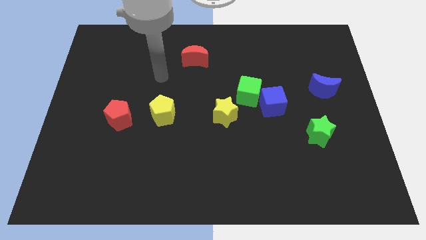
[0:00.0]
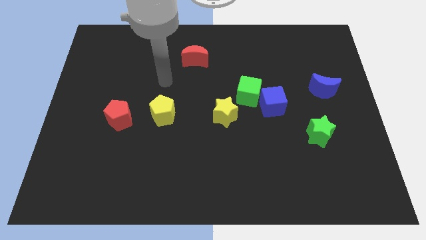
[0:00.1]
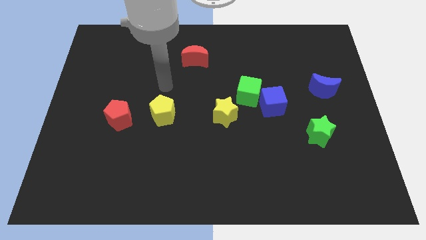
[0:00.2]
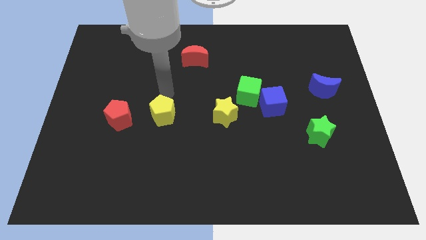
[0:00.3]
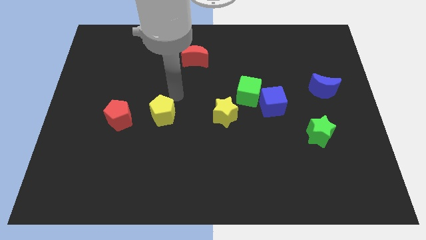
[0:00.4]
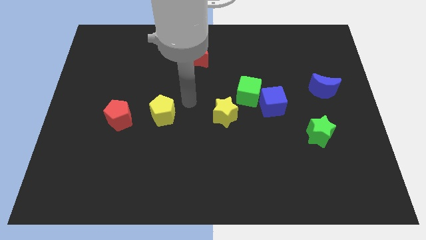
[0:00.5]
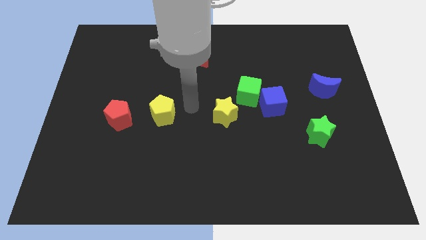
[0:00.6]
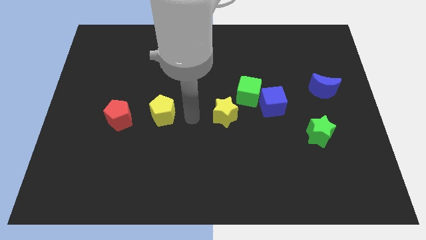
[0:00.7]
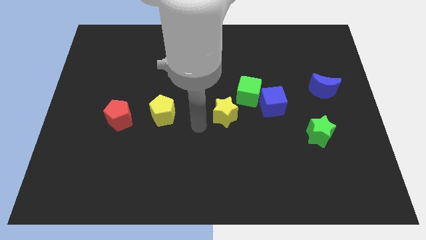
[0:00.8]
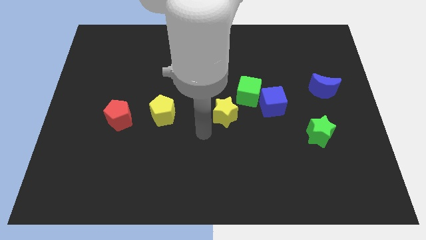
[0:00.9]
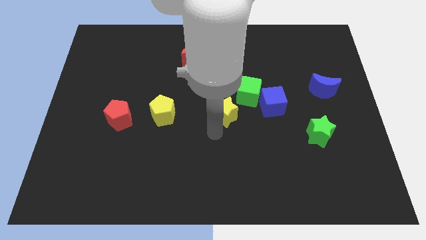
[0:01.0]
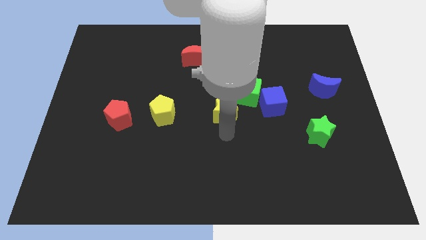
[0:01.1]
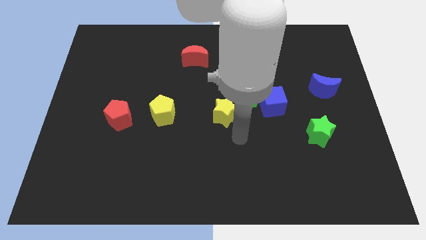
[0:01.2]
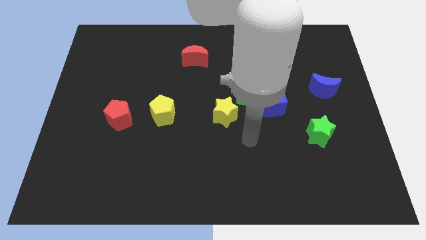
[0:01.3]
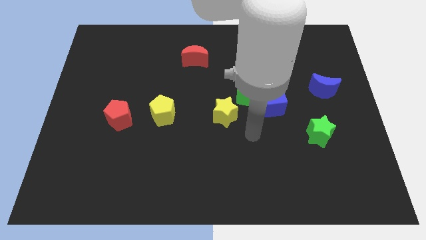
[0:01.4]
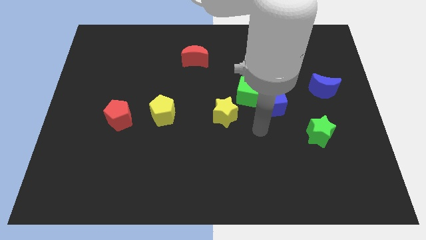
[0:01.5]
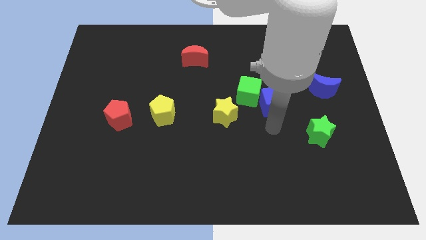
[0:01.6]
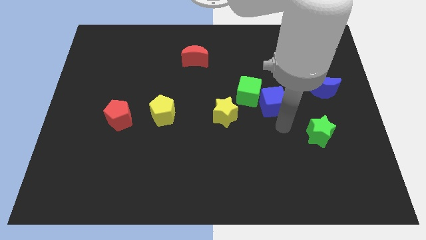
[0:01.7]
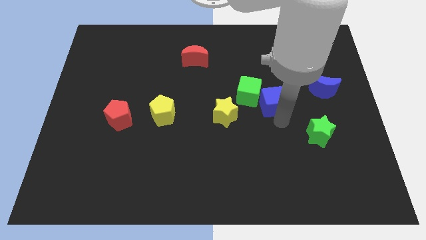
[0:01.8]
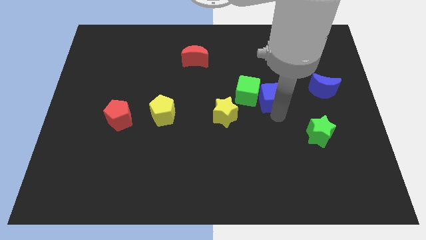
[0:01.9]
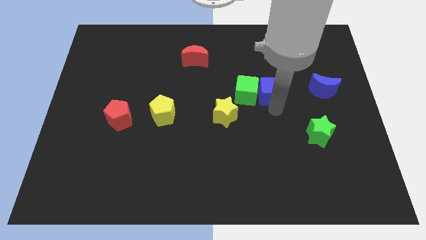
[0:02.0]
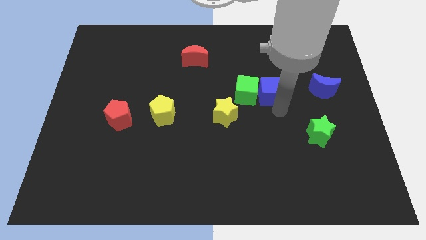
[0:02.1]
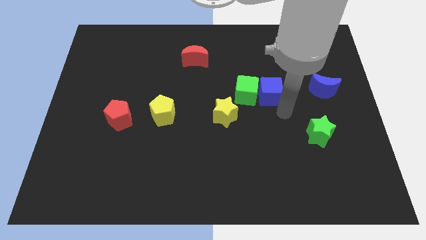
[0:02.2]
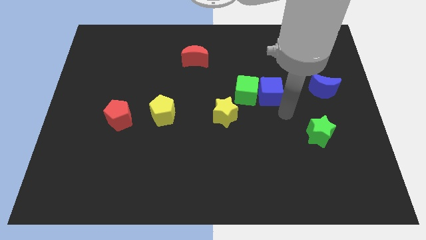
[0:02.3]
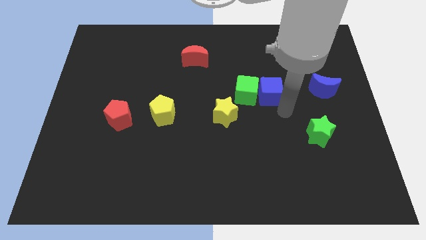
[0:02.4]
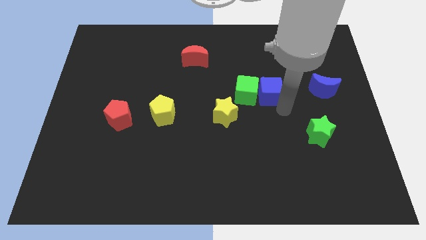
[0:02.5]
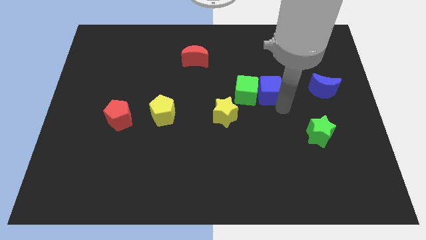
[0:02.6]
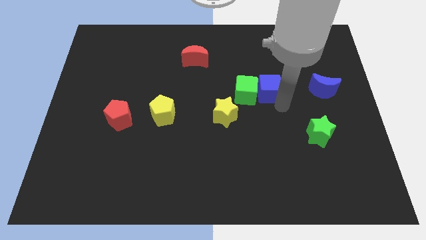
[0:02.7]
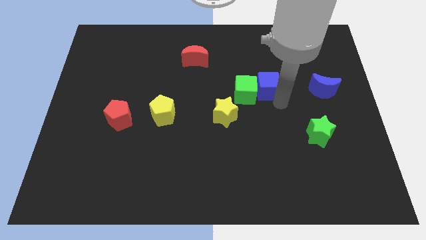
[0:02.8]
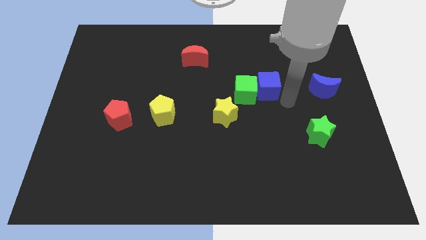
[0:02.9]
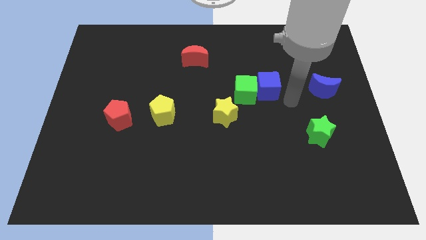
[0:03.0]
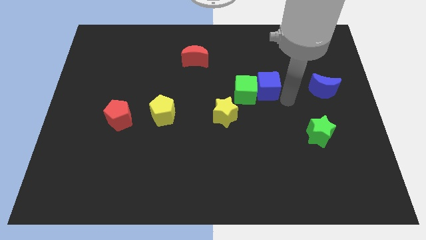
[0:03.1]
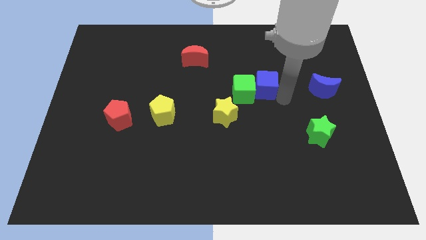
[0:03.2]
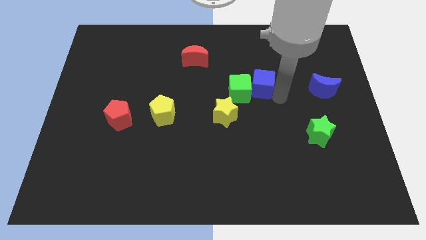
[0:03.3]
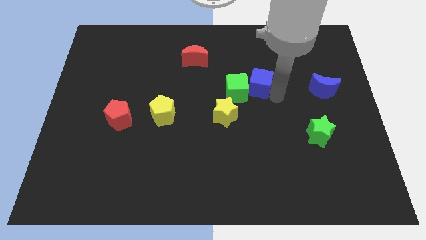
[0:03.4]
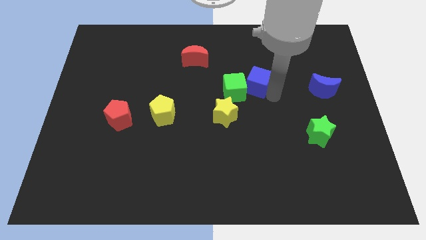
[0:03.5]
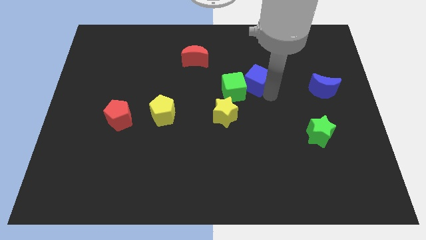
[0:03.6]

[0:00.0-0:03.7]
push the blue cube up and to the left somewhat

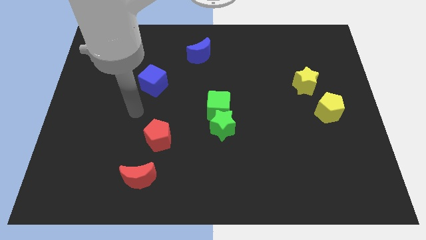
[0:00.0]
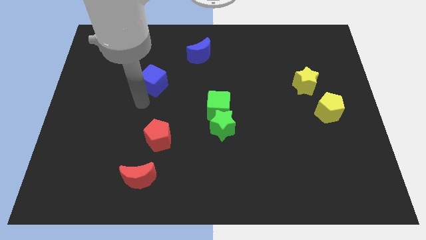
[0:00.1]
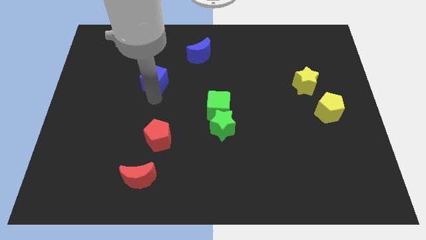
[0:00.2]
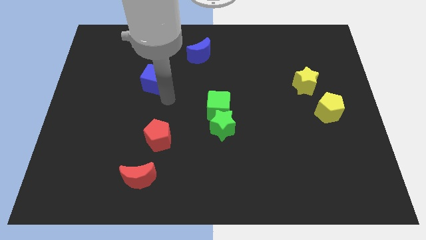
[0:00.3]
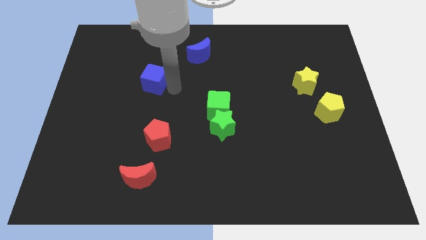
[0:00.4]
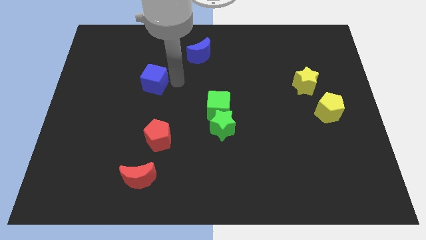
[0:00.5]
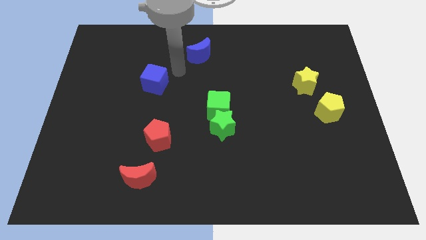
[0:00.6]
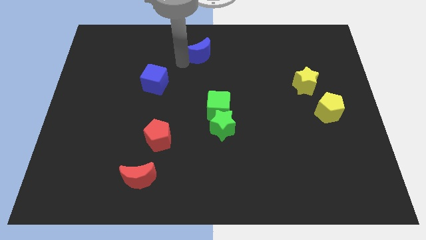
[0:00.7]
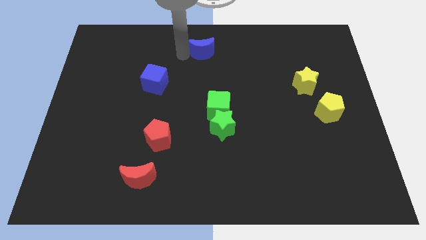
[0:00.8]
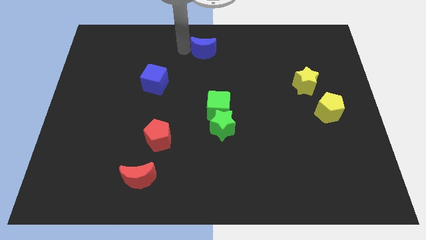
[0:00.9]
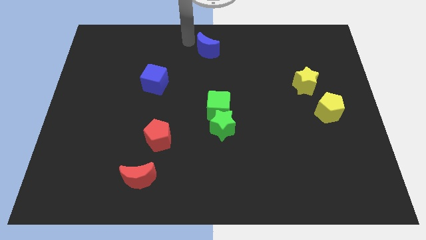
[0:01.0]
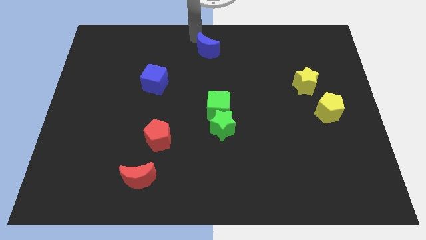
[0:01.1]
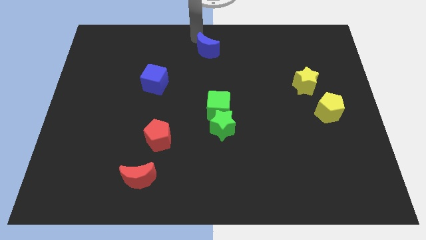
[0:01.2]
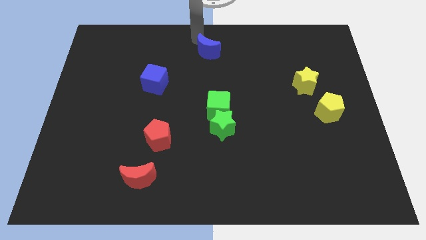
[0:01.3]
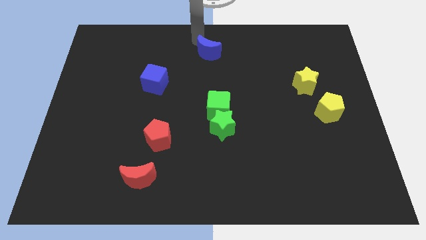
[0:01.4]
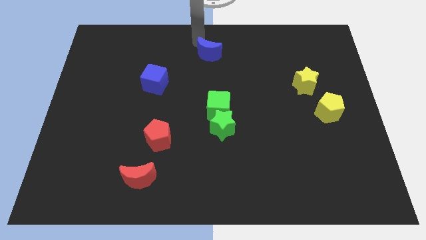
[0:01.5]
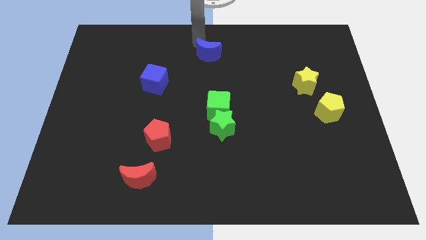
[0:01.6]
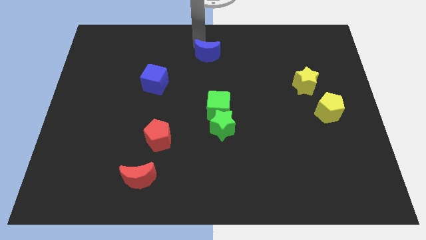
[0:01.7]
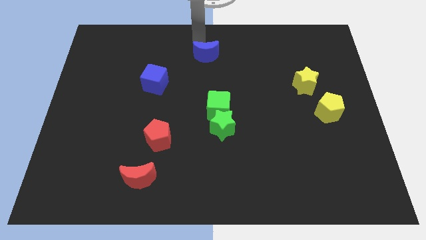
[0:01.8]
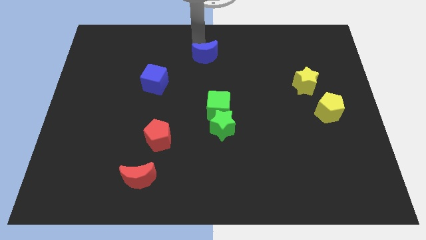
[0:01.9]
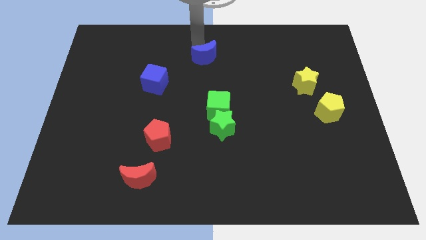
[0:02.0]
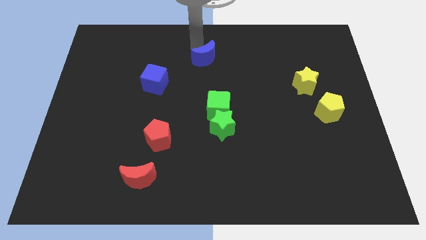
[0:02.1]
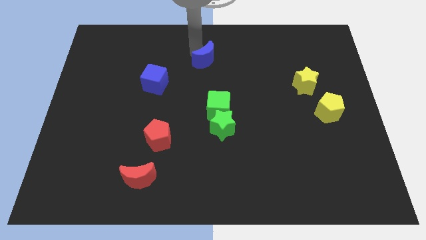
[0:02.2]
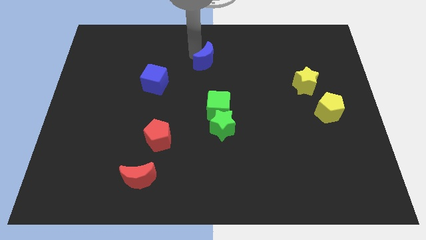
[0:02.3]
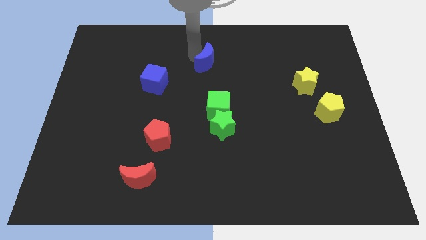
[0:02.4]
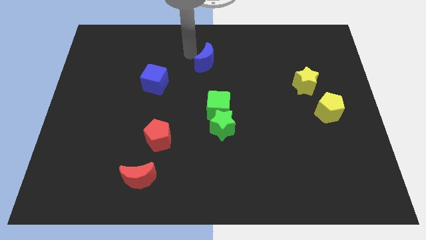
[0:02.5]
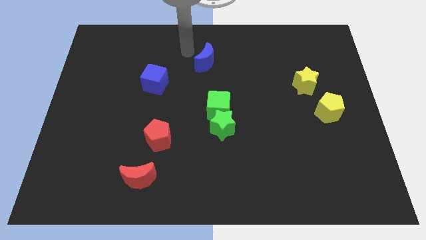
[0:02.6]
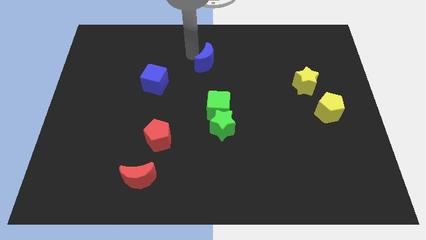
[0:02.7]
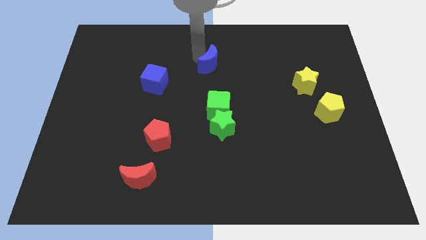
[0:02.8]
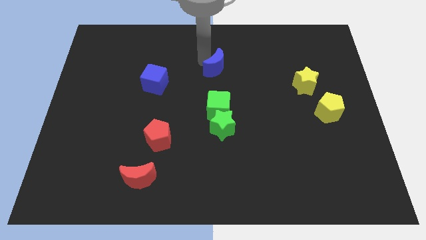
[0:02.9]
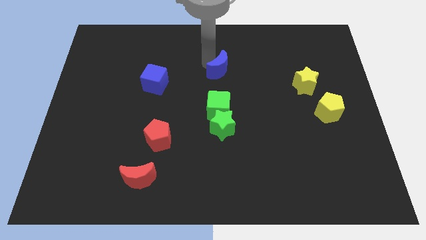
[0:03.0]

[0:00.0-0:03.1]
move the blue moon a little downwards and right

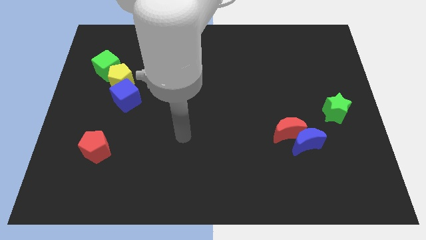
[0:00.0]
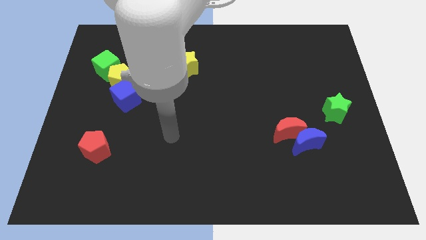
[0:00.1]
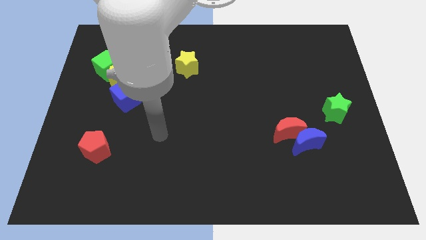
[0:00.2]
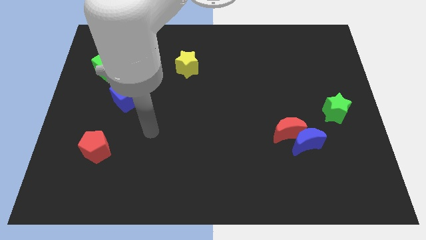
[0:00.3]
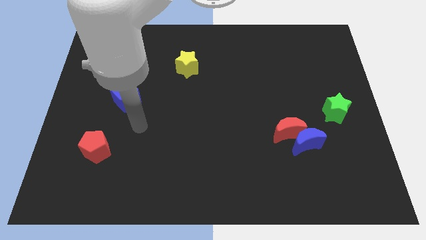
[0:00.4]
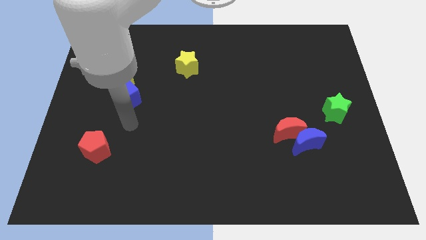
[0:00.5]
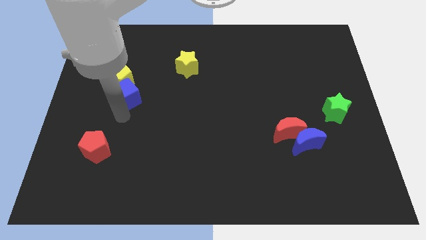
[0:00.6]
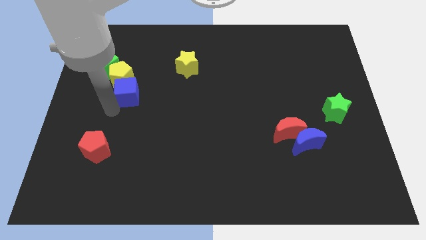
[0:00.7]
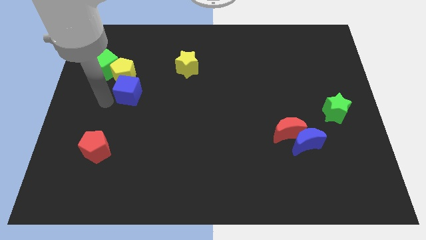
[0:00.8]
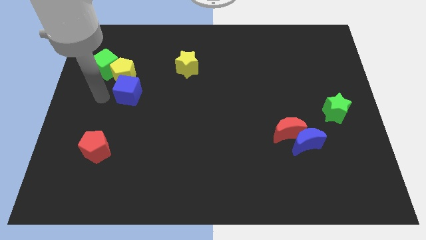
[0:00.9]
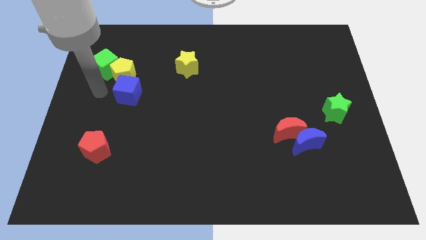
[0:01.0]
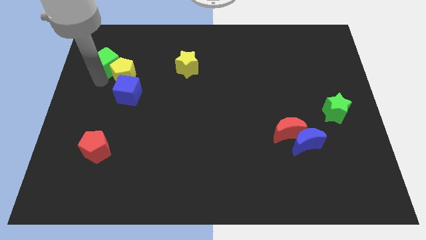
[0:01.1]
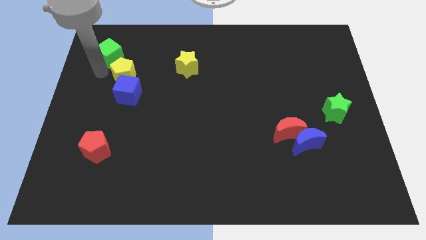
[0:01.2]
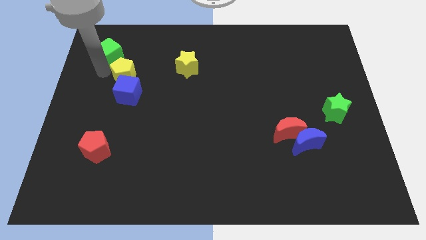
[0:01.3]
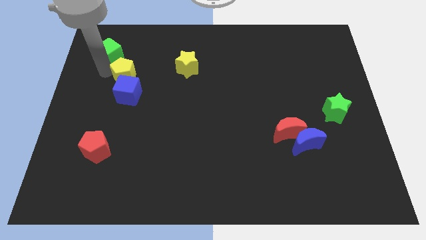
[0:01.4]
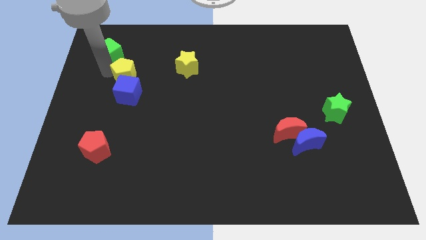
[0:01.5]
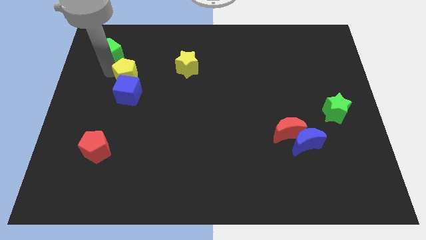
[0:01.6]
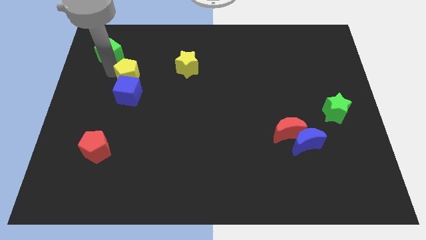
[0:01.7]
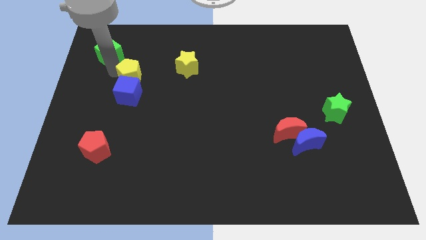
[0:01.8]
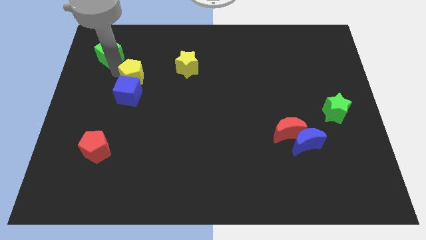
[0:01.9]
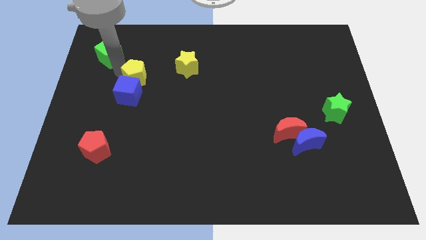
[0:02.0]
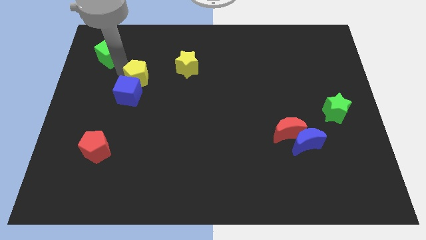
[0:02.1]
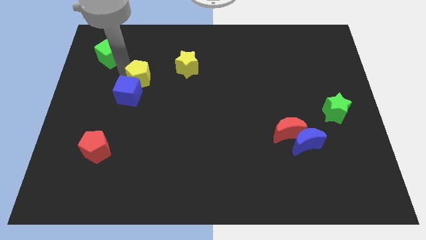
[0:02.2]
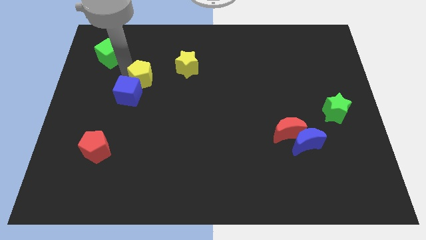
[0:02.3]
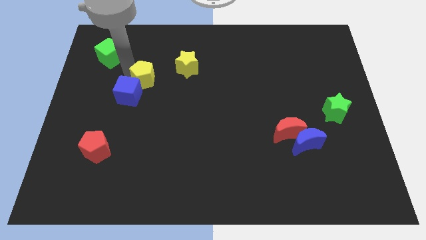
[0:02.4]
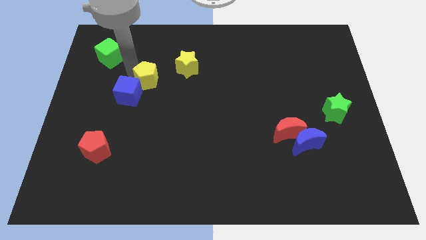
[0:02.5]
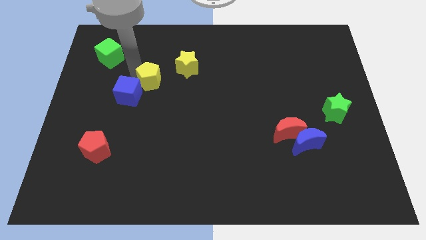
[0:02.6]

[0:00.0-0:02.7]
slightly push the yellow pentagon to the right
